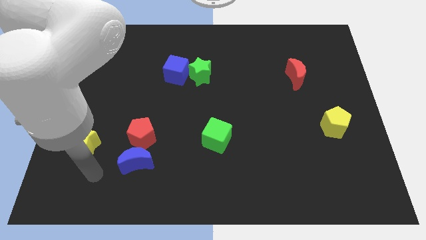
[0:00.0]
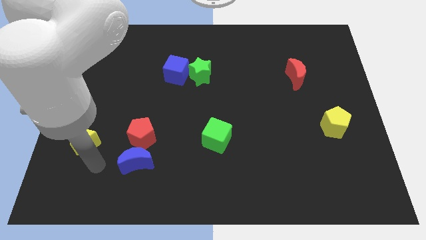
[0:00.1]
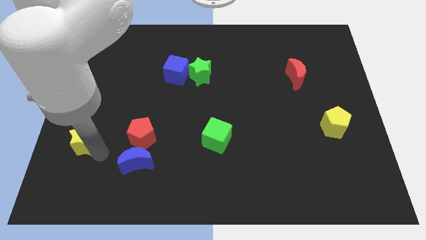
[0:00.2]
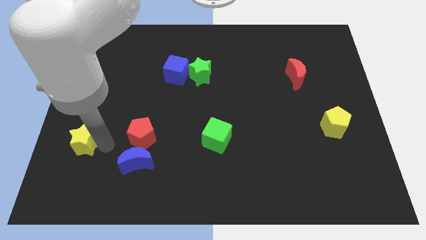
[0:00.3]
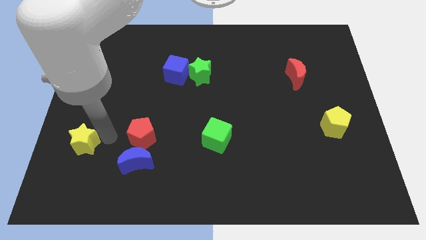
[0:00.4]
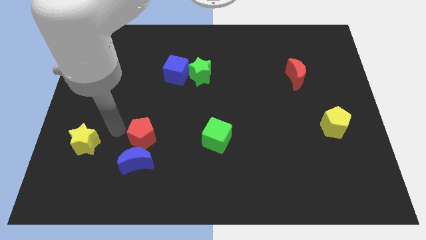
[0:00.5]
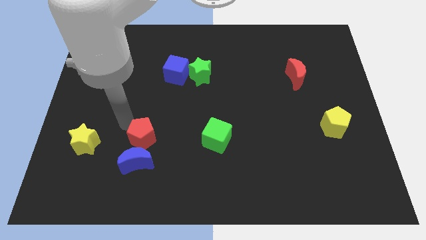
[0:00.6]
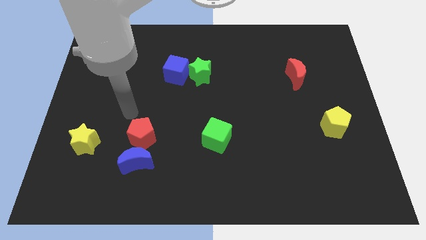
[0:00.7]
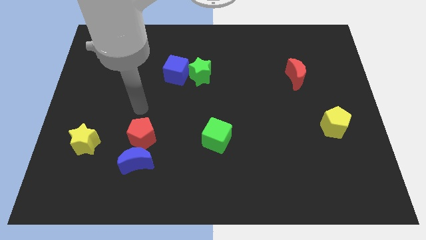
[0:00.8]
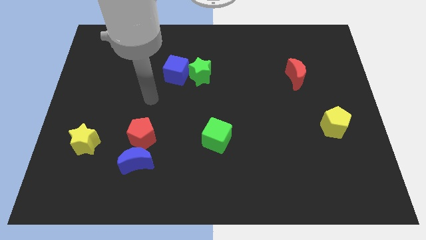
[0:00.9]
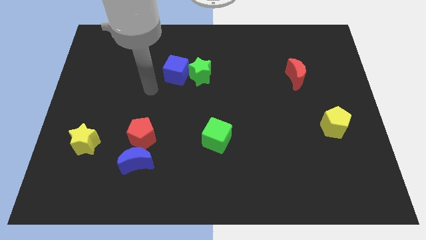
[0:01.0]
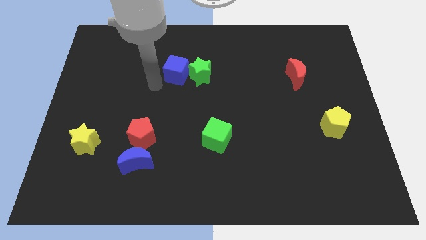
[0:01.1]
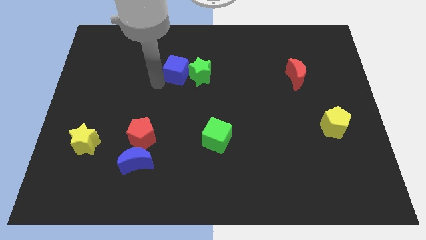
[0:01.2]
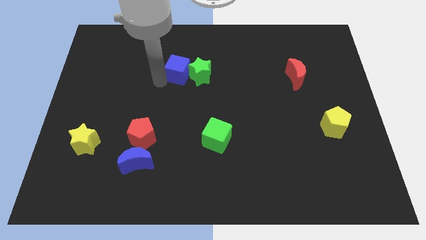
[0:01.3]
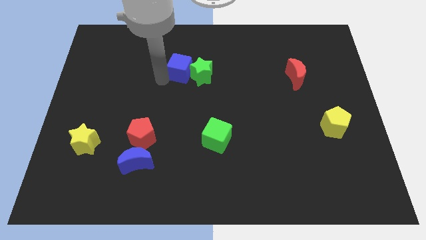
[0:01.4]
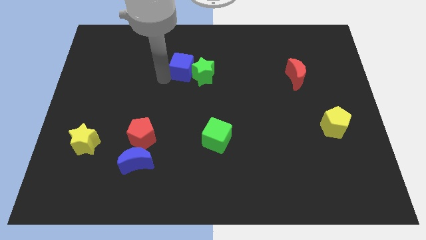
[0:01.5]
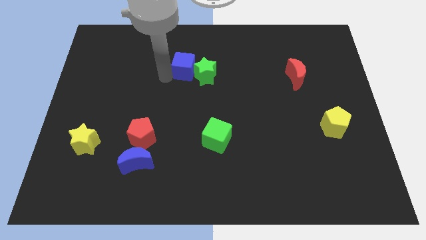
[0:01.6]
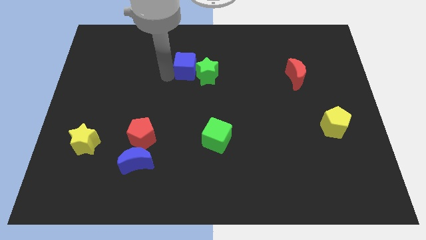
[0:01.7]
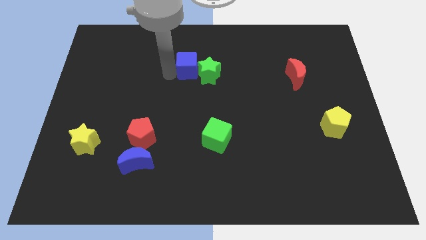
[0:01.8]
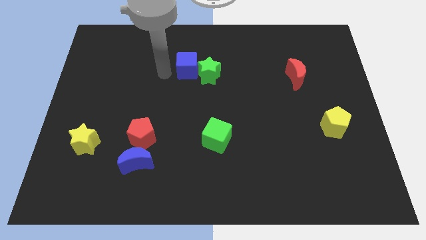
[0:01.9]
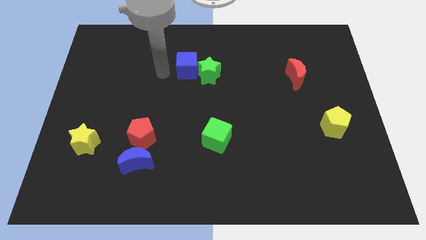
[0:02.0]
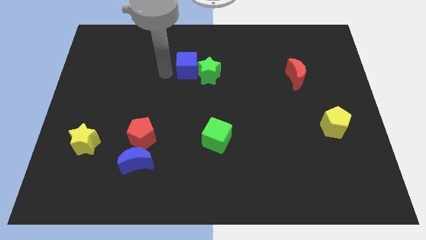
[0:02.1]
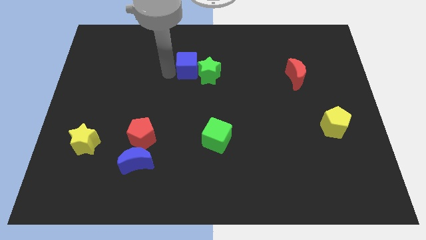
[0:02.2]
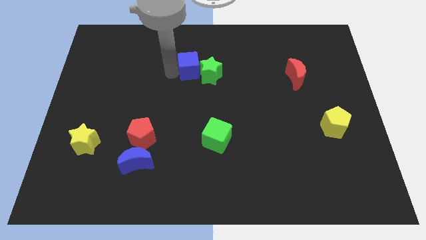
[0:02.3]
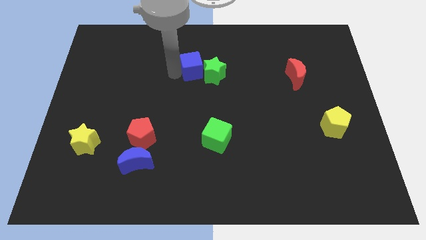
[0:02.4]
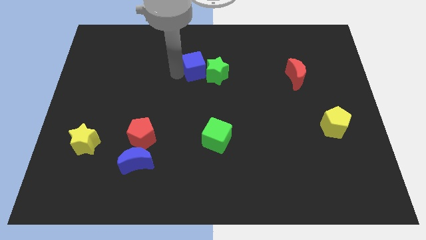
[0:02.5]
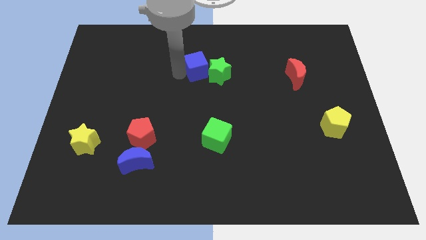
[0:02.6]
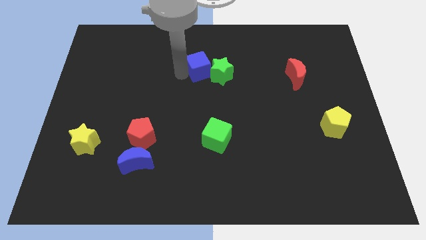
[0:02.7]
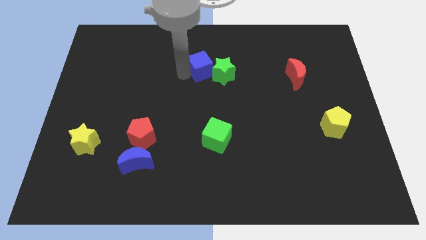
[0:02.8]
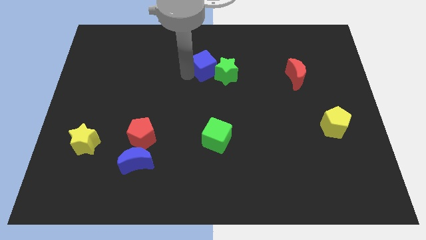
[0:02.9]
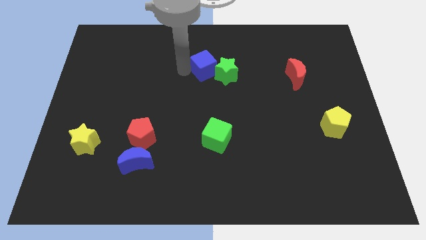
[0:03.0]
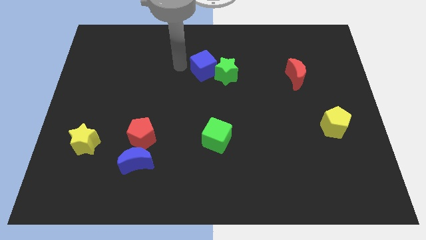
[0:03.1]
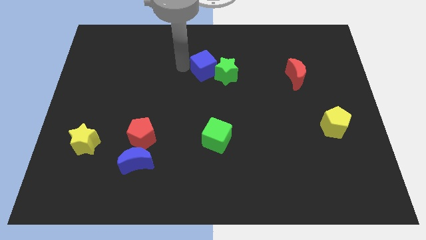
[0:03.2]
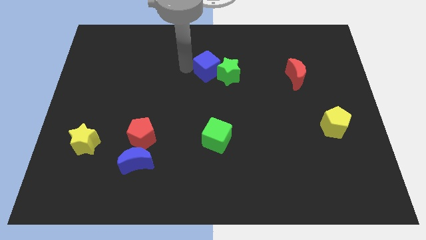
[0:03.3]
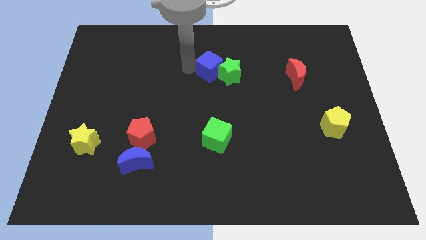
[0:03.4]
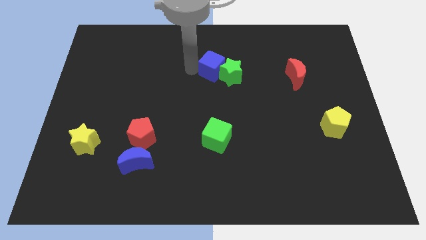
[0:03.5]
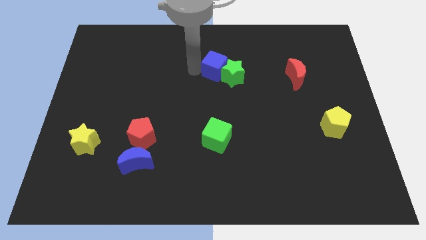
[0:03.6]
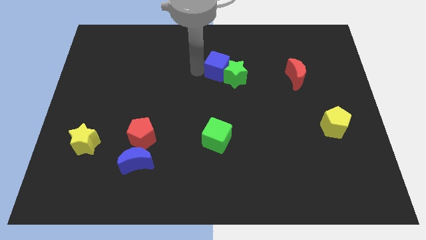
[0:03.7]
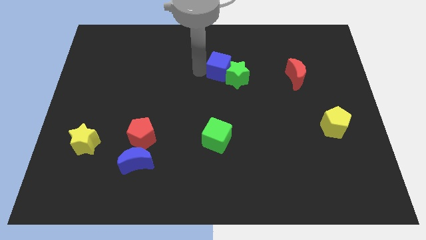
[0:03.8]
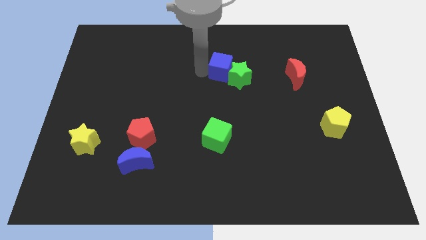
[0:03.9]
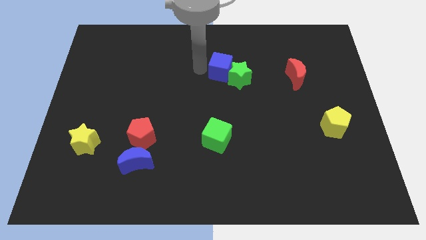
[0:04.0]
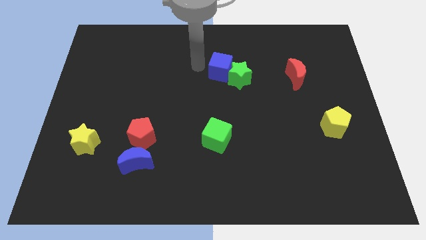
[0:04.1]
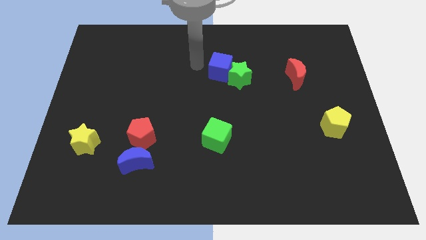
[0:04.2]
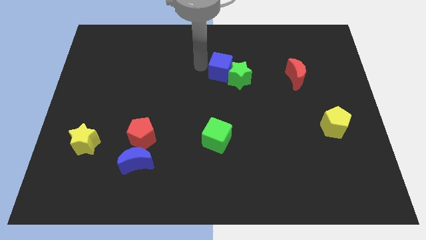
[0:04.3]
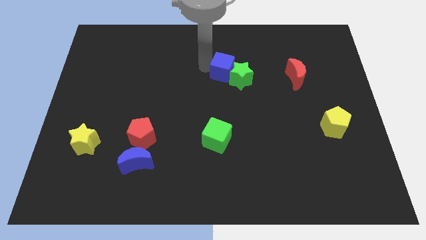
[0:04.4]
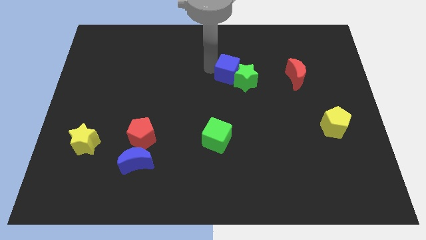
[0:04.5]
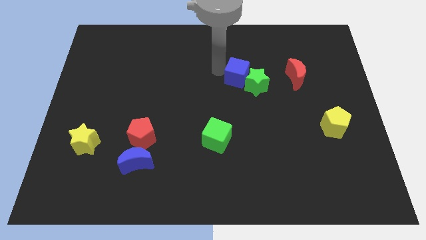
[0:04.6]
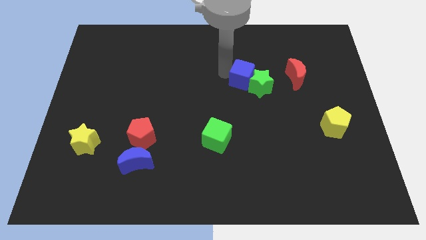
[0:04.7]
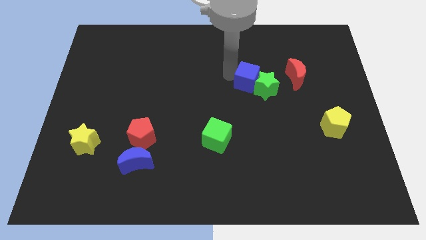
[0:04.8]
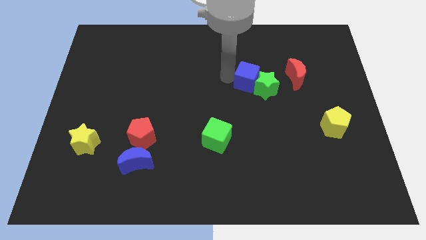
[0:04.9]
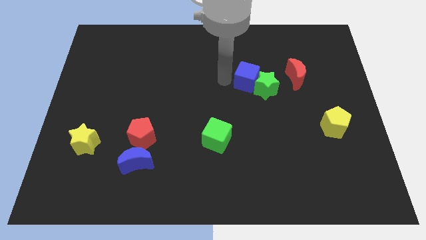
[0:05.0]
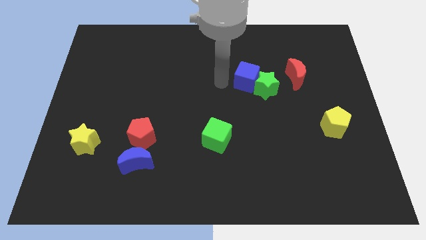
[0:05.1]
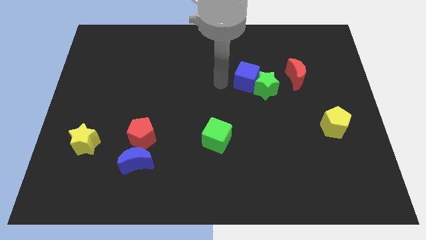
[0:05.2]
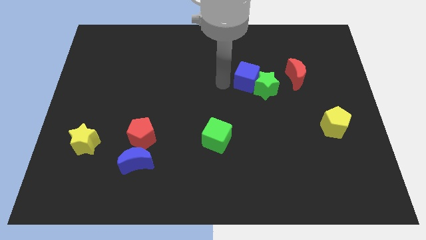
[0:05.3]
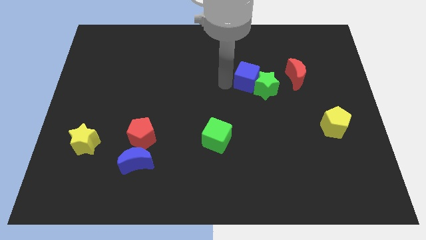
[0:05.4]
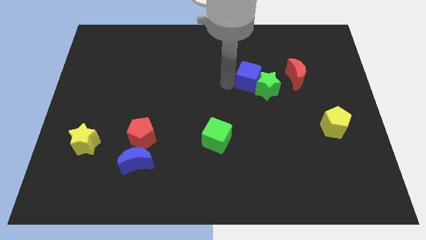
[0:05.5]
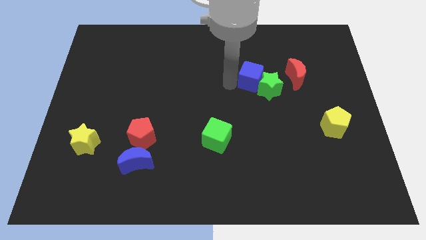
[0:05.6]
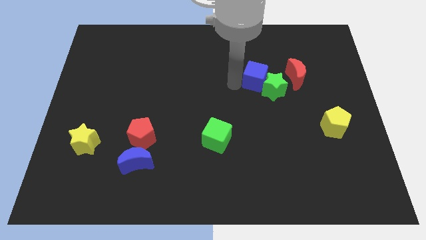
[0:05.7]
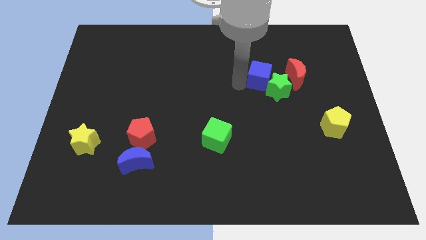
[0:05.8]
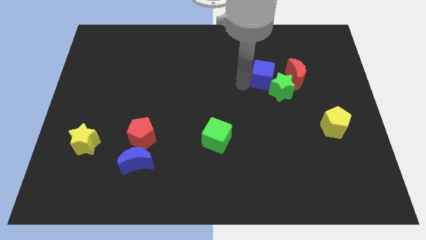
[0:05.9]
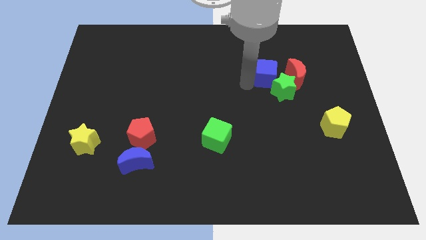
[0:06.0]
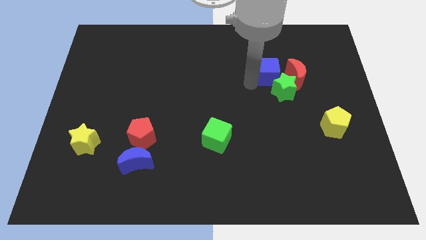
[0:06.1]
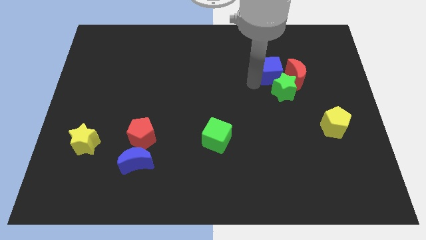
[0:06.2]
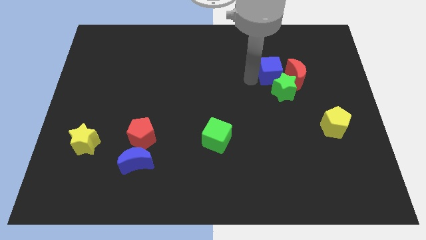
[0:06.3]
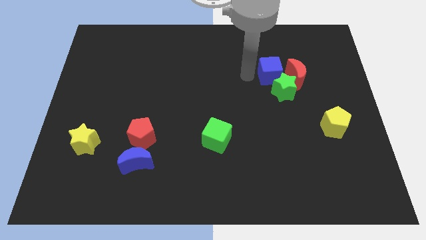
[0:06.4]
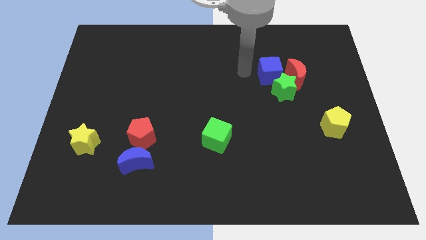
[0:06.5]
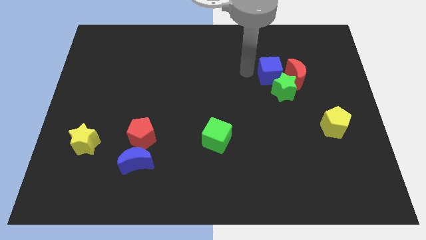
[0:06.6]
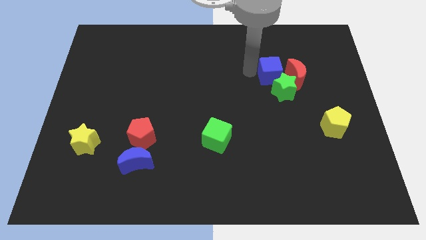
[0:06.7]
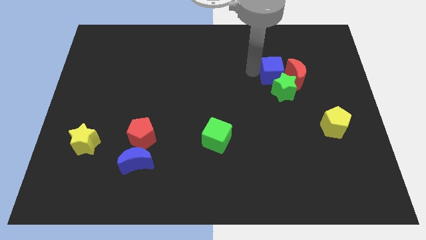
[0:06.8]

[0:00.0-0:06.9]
slide the blue cube towards the red moon
